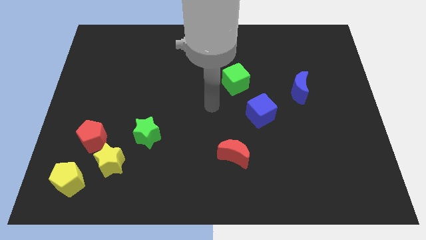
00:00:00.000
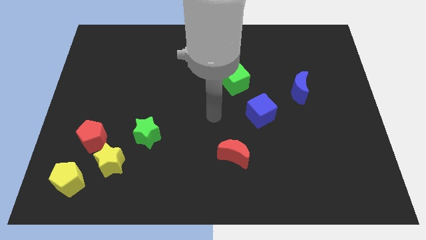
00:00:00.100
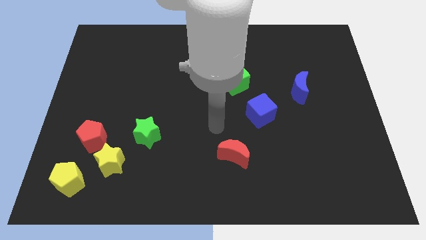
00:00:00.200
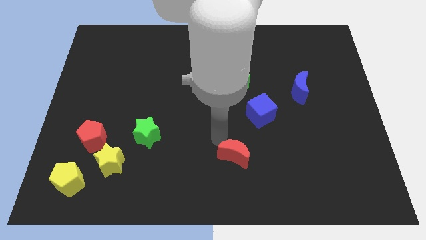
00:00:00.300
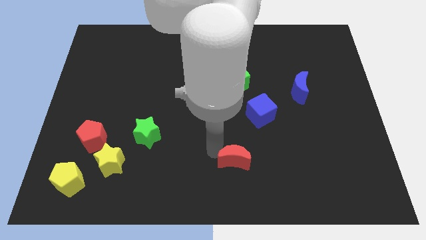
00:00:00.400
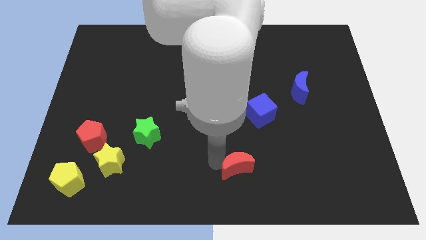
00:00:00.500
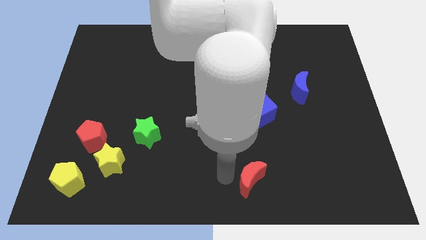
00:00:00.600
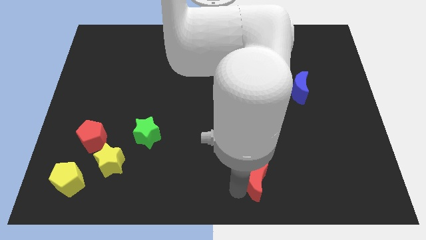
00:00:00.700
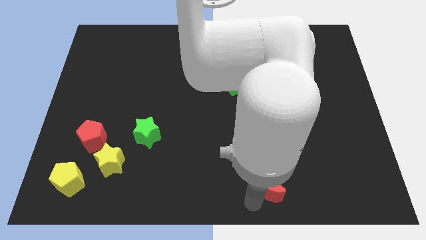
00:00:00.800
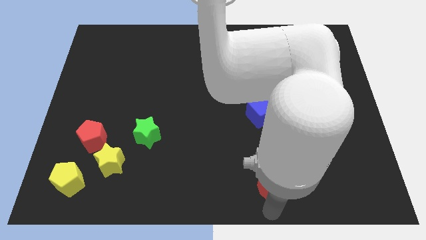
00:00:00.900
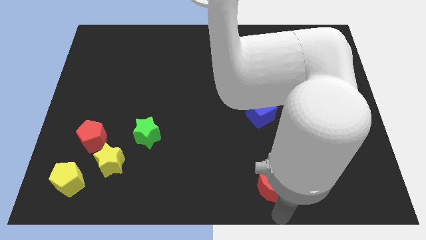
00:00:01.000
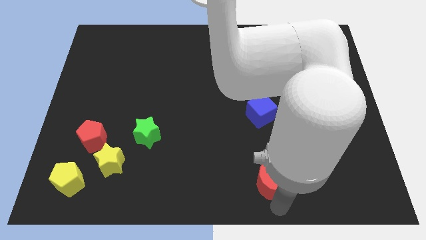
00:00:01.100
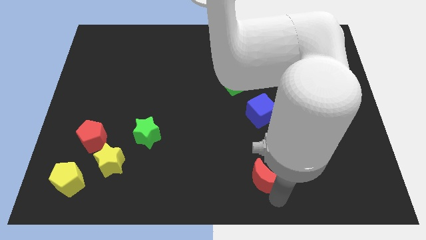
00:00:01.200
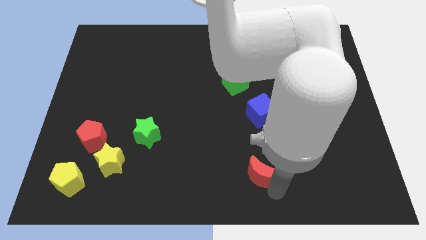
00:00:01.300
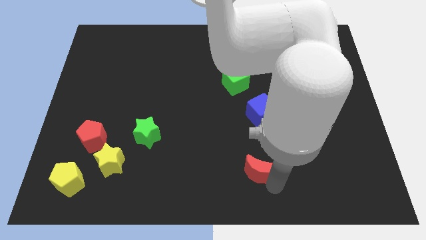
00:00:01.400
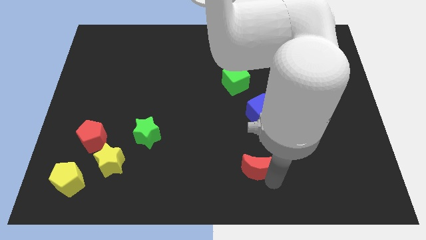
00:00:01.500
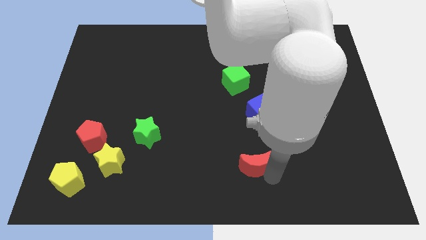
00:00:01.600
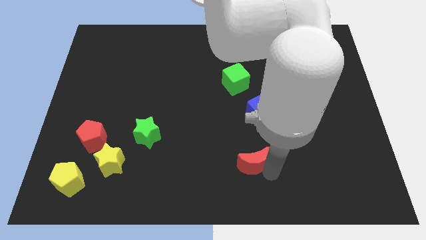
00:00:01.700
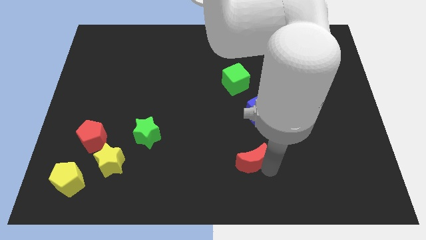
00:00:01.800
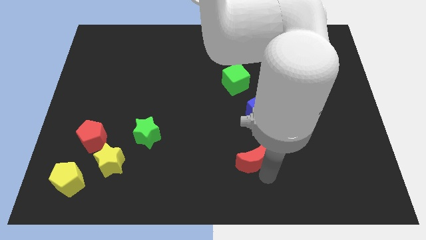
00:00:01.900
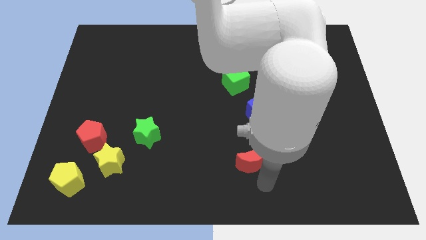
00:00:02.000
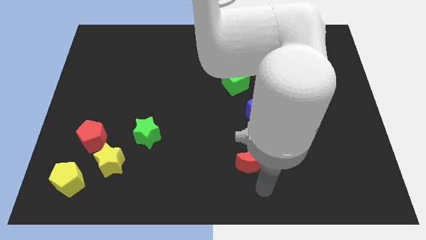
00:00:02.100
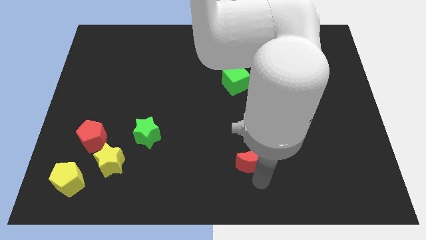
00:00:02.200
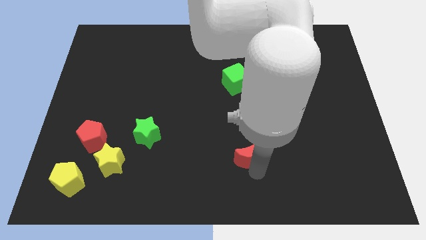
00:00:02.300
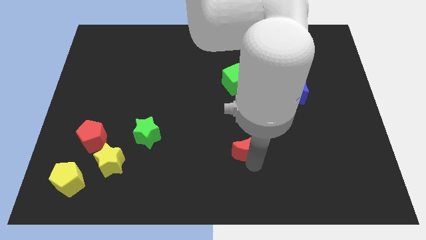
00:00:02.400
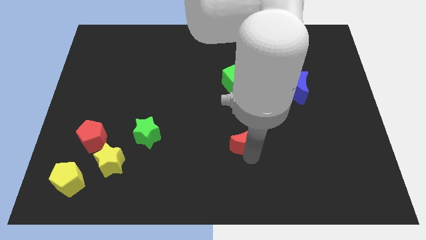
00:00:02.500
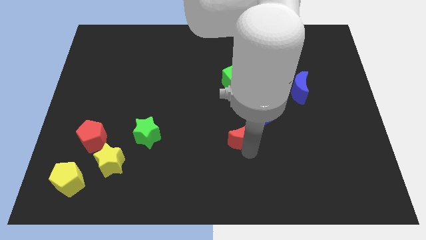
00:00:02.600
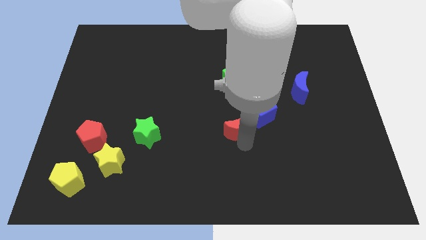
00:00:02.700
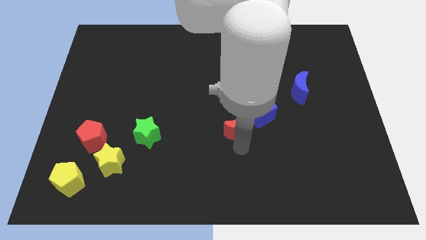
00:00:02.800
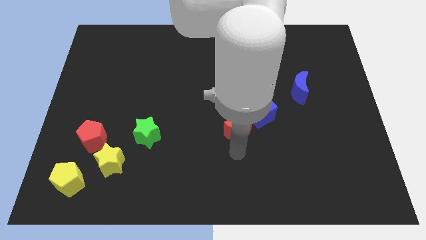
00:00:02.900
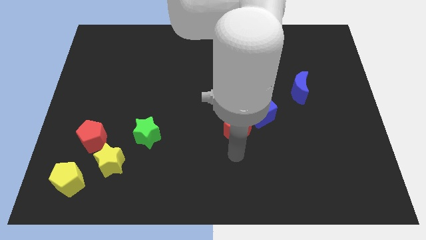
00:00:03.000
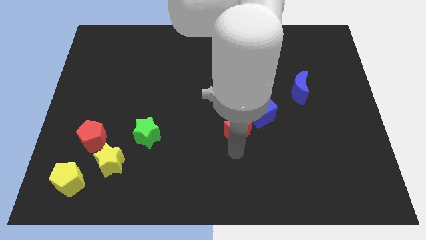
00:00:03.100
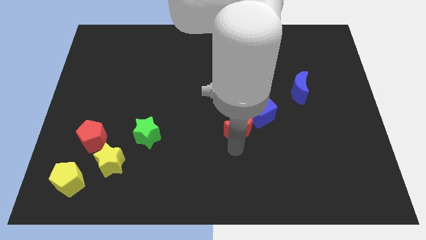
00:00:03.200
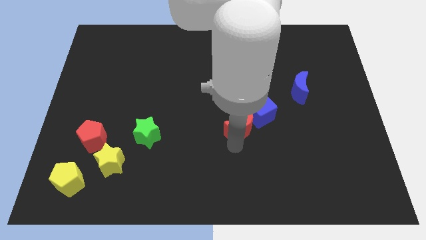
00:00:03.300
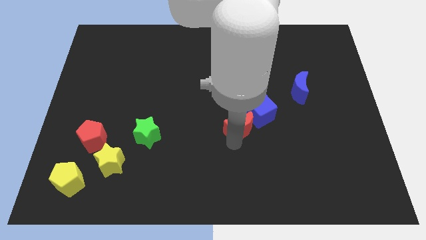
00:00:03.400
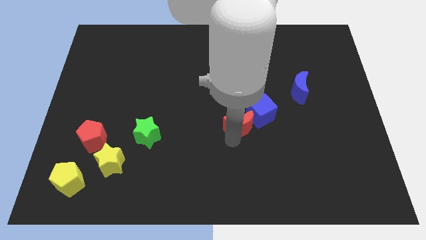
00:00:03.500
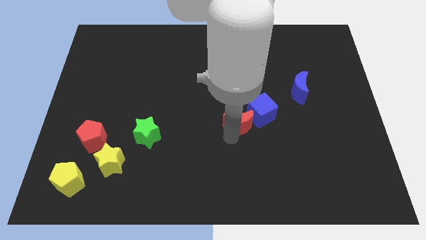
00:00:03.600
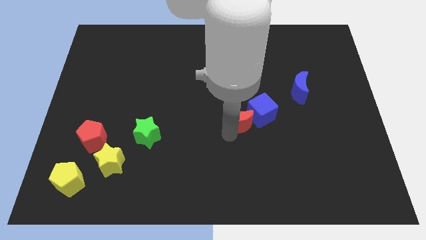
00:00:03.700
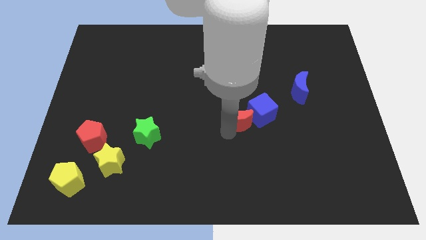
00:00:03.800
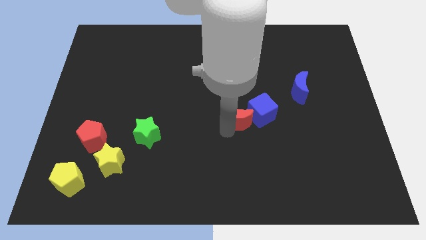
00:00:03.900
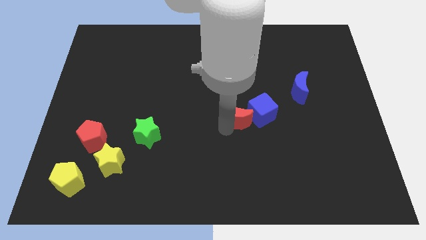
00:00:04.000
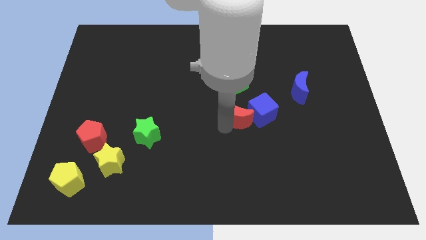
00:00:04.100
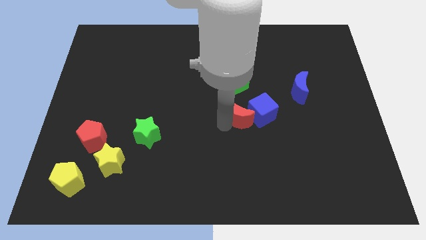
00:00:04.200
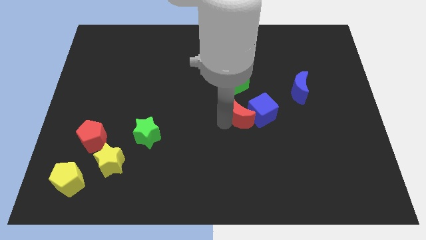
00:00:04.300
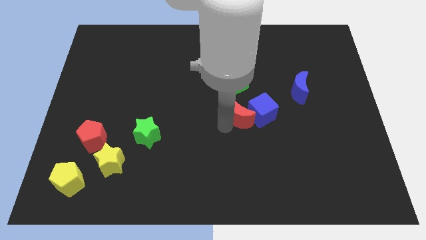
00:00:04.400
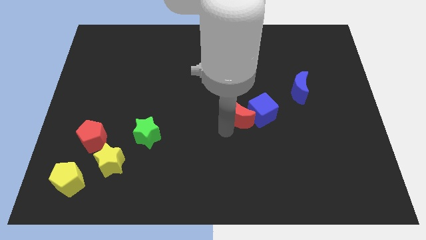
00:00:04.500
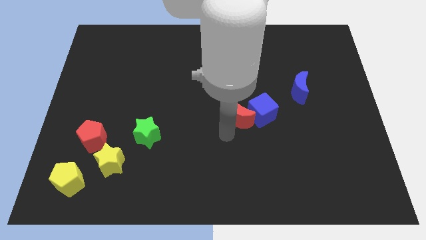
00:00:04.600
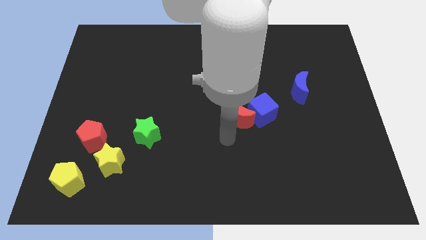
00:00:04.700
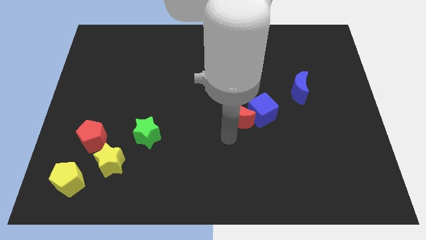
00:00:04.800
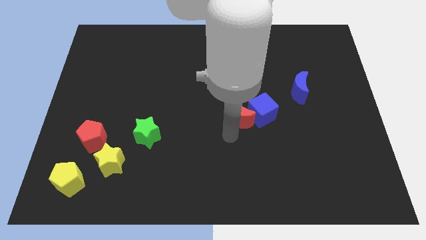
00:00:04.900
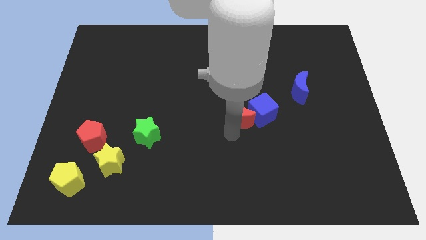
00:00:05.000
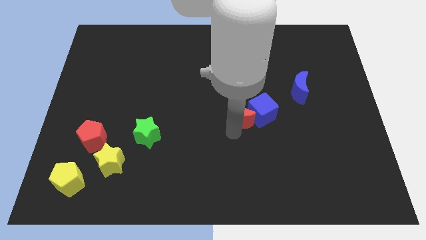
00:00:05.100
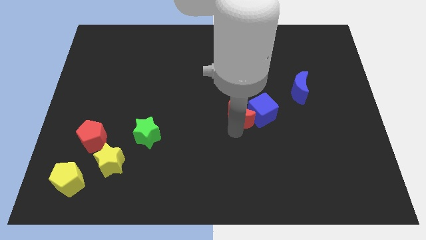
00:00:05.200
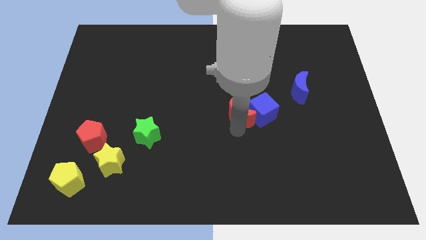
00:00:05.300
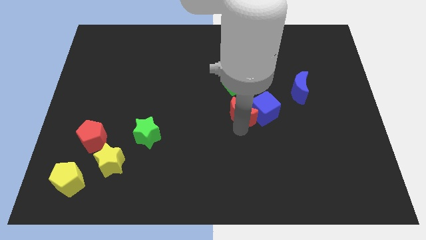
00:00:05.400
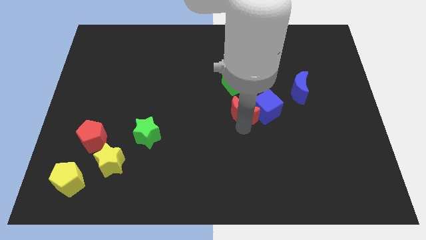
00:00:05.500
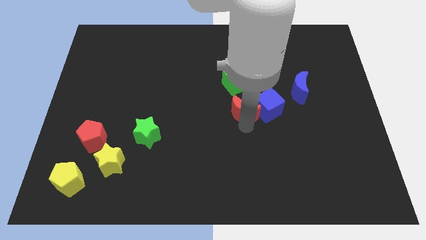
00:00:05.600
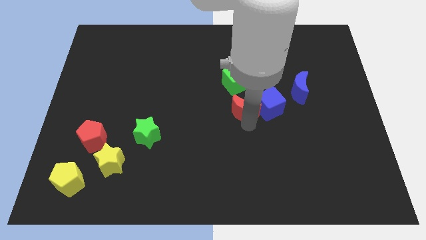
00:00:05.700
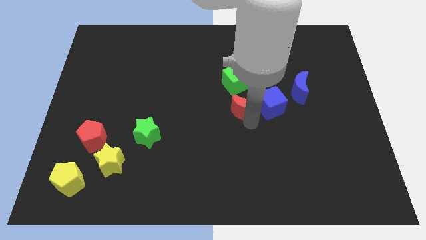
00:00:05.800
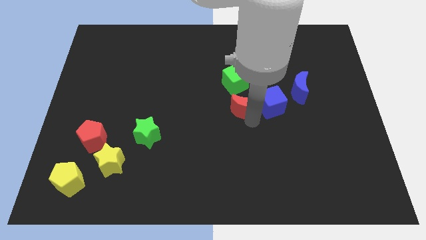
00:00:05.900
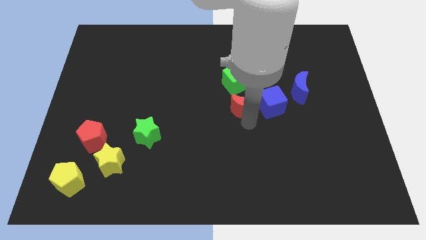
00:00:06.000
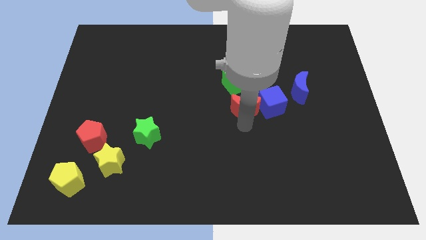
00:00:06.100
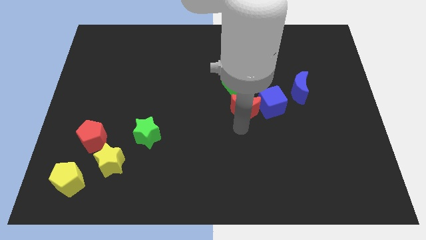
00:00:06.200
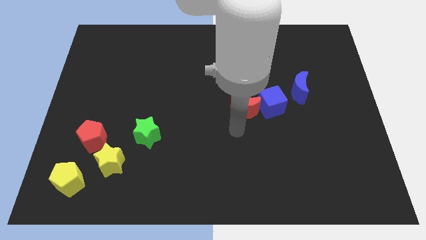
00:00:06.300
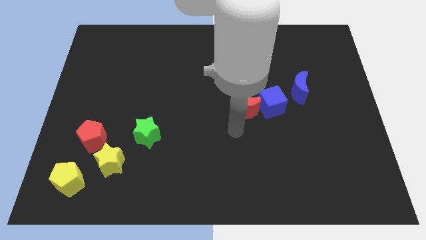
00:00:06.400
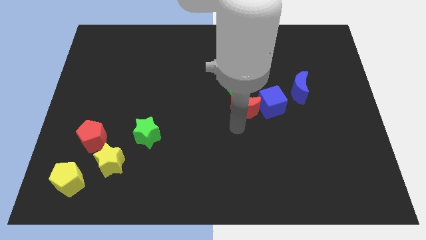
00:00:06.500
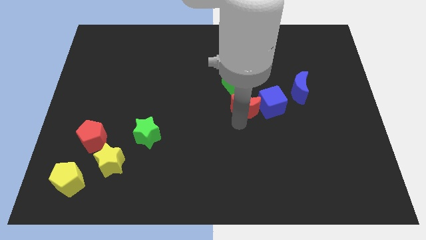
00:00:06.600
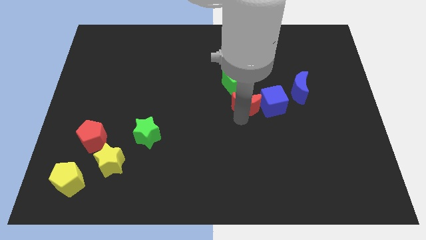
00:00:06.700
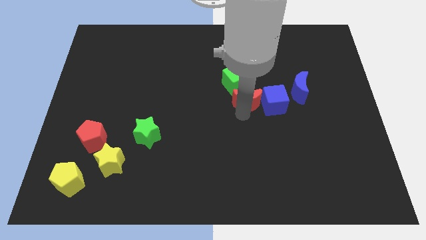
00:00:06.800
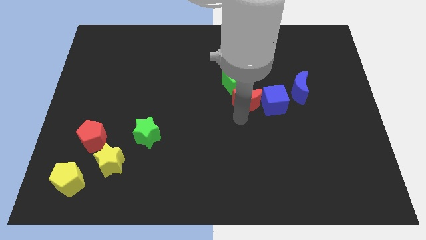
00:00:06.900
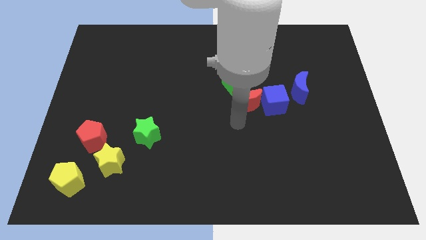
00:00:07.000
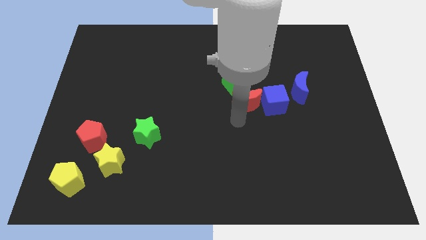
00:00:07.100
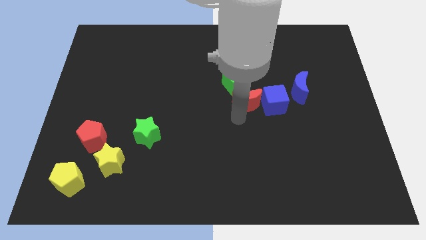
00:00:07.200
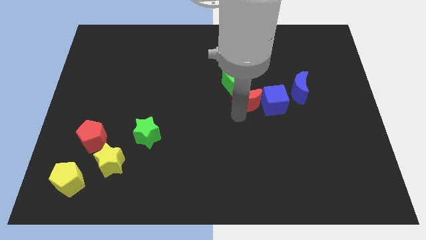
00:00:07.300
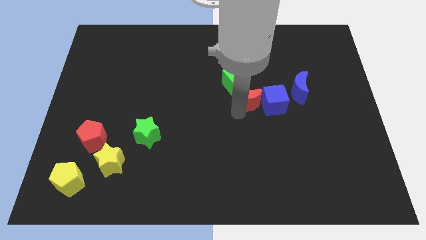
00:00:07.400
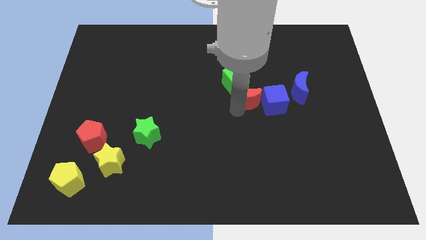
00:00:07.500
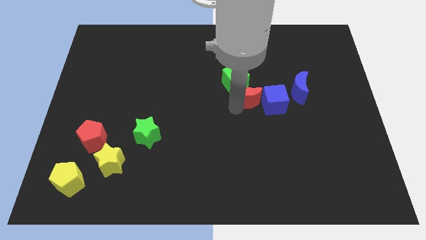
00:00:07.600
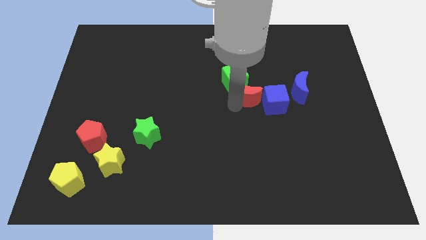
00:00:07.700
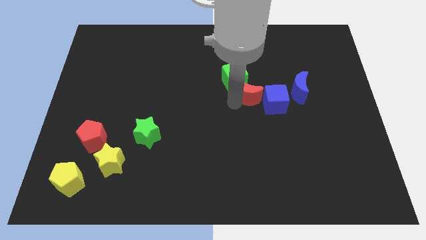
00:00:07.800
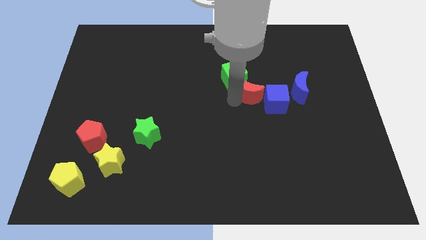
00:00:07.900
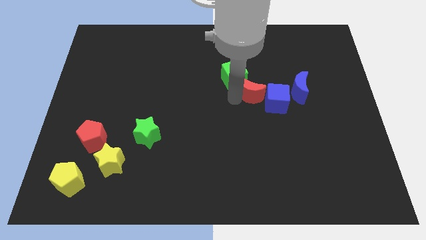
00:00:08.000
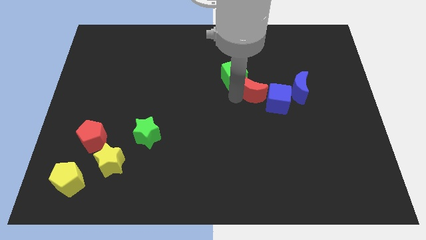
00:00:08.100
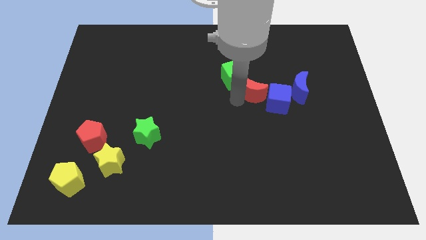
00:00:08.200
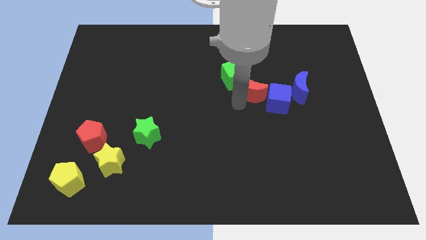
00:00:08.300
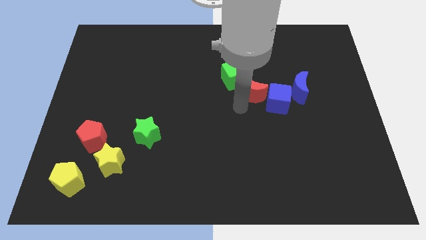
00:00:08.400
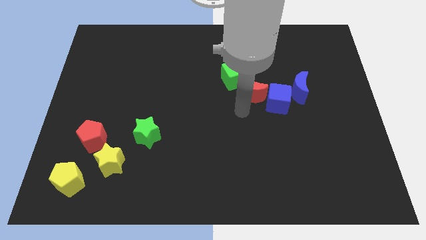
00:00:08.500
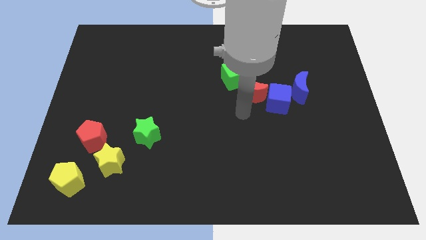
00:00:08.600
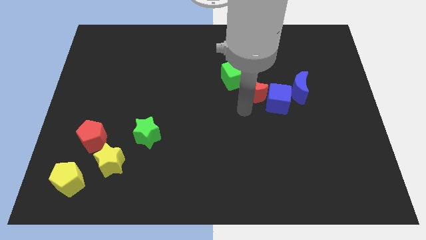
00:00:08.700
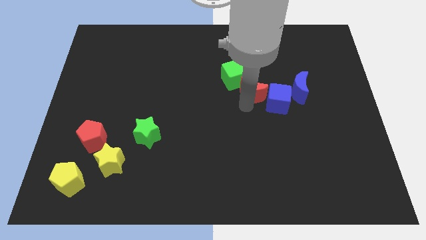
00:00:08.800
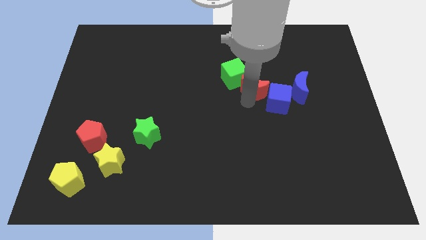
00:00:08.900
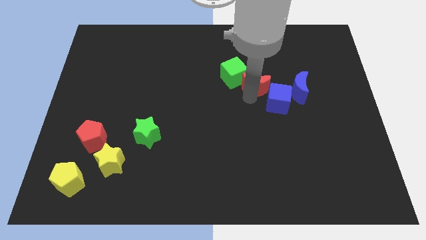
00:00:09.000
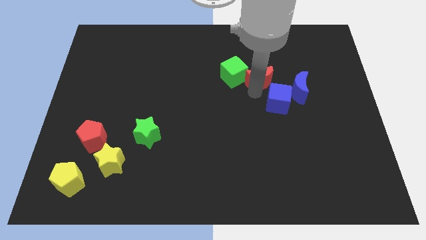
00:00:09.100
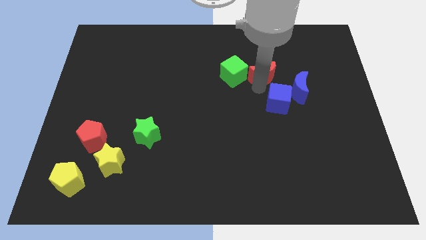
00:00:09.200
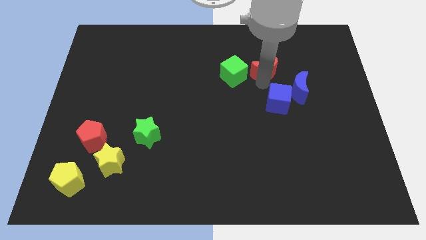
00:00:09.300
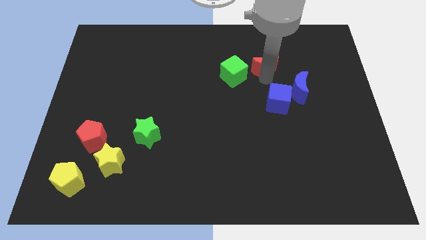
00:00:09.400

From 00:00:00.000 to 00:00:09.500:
slide the red moon to the top right of the green cube
